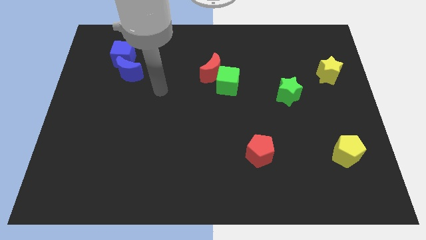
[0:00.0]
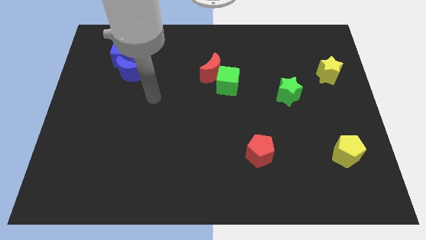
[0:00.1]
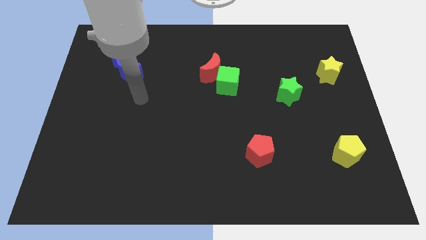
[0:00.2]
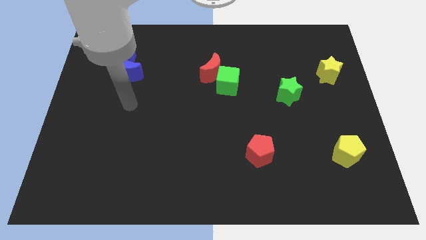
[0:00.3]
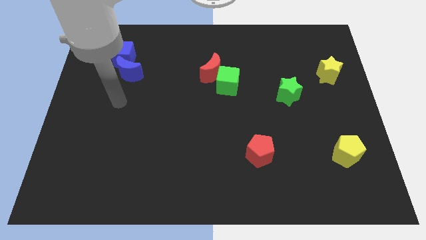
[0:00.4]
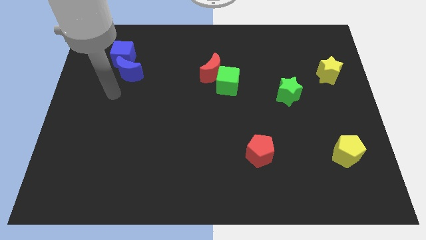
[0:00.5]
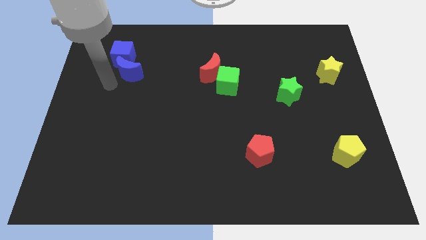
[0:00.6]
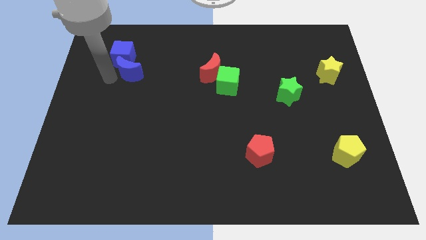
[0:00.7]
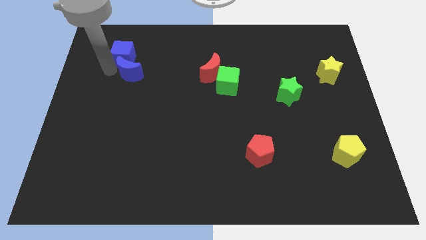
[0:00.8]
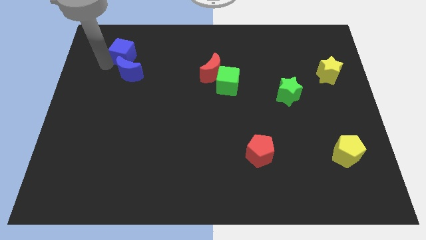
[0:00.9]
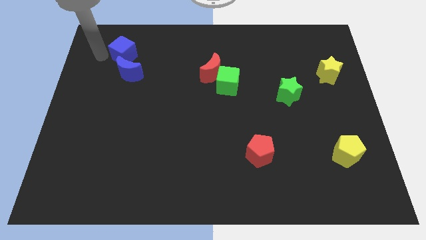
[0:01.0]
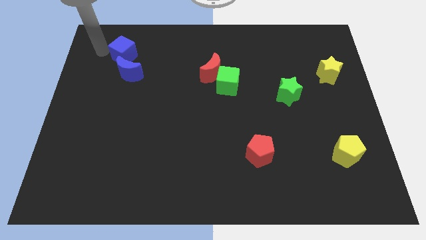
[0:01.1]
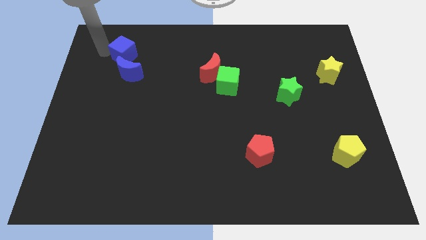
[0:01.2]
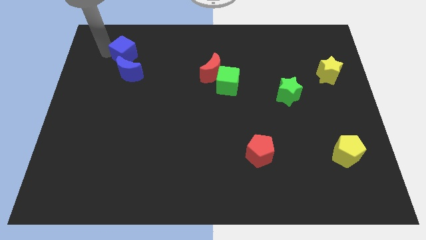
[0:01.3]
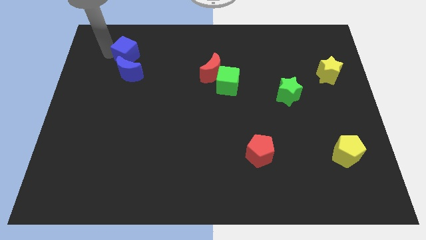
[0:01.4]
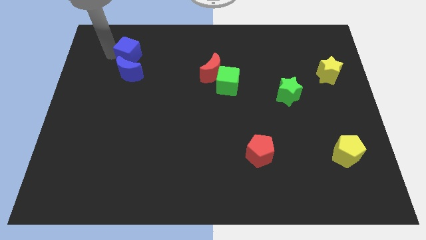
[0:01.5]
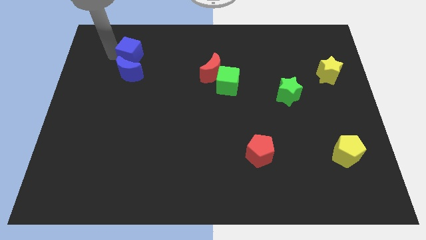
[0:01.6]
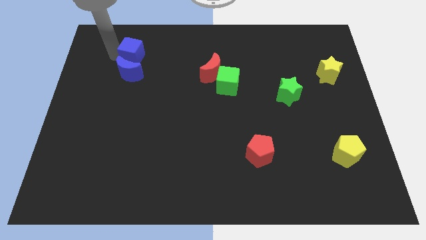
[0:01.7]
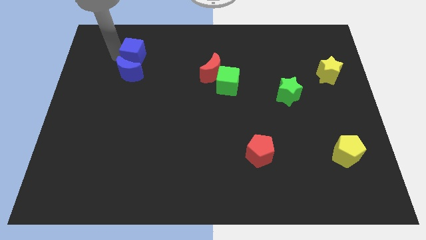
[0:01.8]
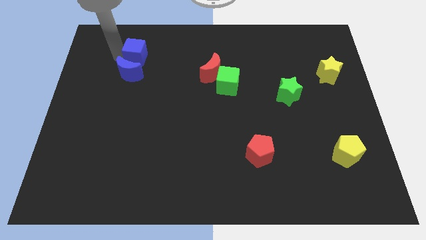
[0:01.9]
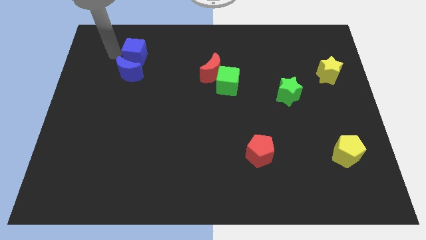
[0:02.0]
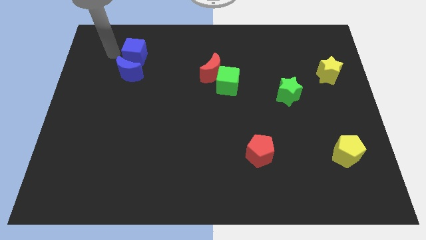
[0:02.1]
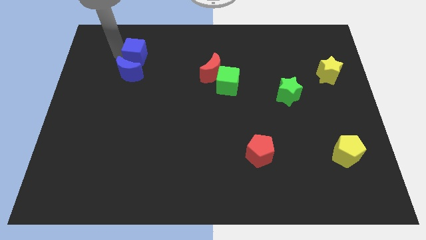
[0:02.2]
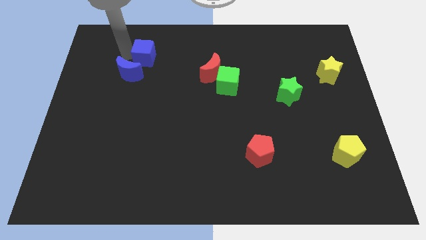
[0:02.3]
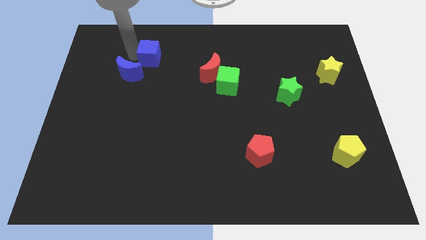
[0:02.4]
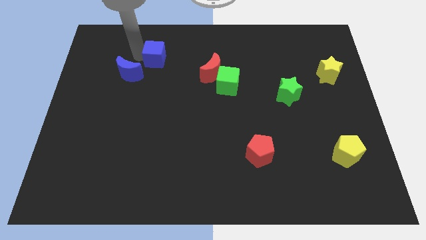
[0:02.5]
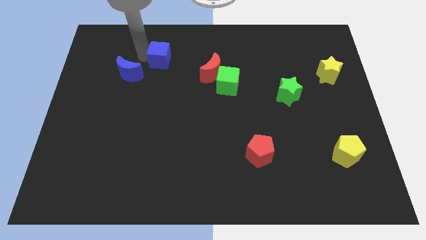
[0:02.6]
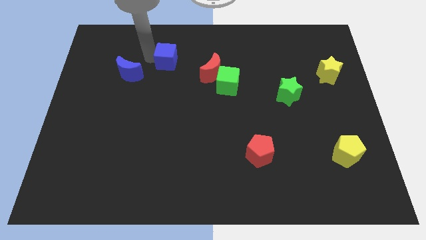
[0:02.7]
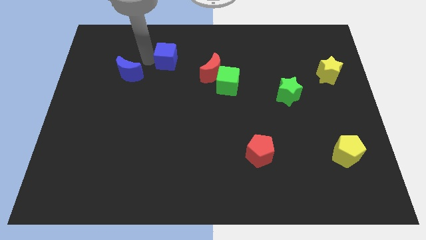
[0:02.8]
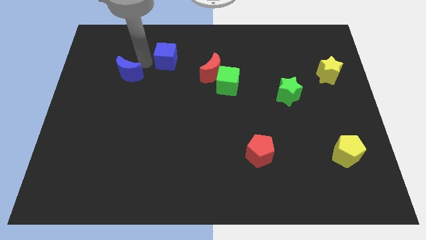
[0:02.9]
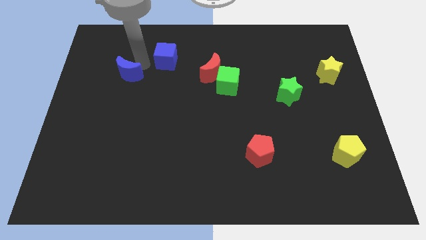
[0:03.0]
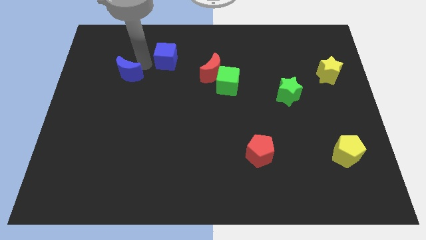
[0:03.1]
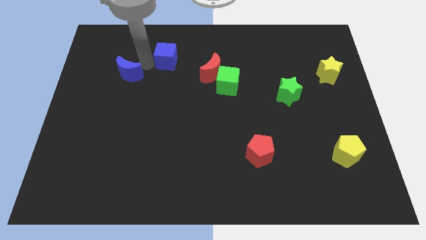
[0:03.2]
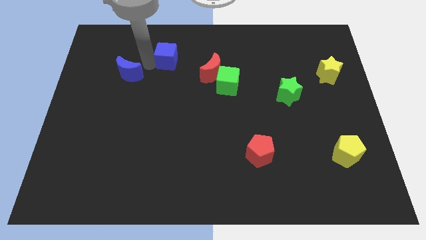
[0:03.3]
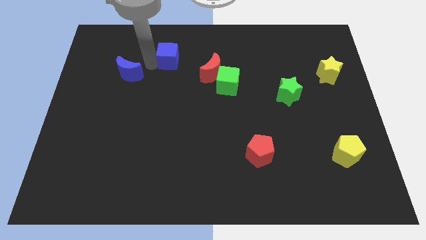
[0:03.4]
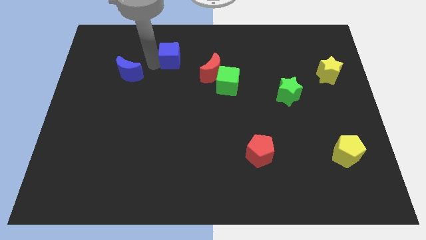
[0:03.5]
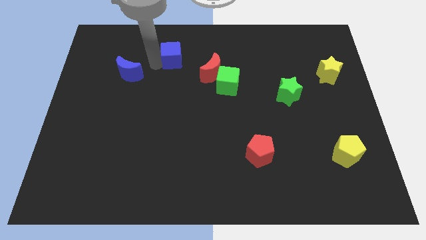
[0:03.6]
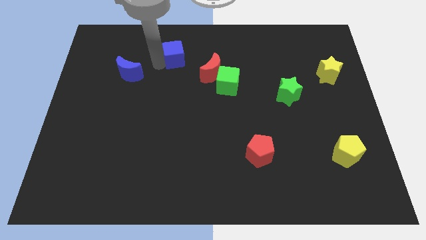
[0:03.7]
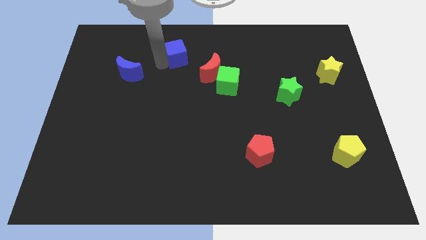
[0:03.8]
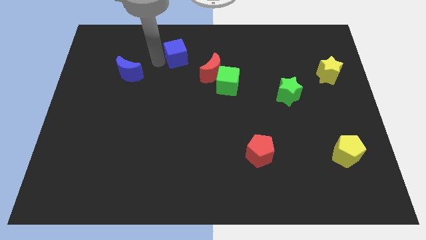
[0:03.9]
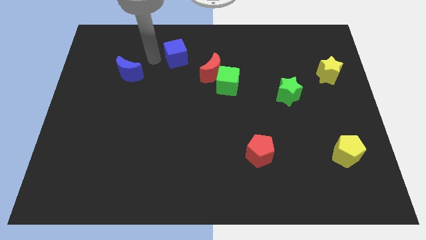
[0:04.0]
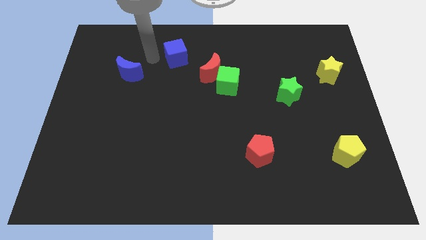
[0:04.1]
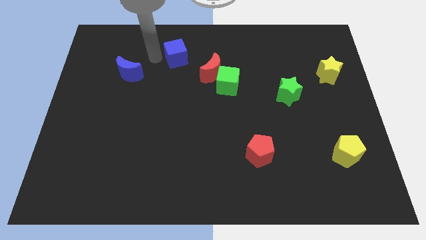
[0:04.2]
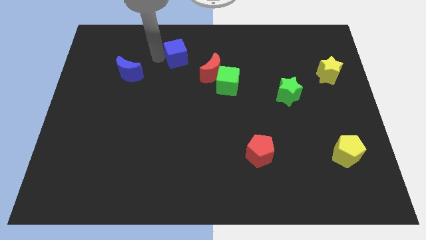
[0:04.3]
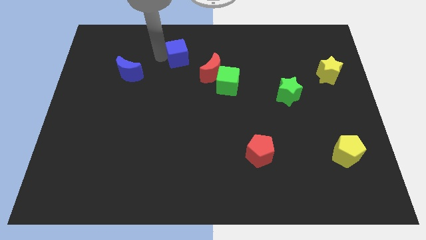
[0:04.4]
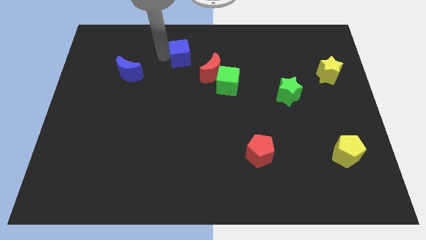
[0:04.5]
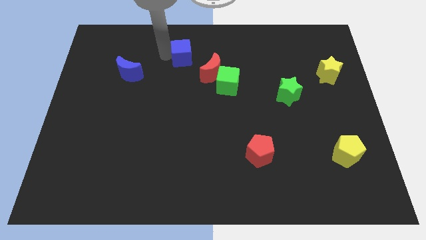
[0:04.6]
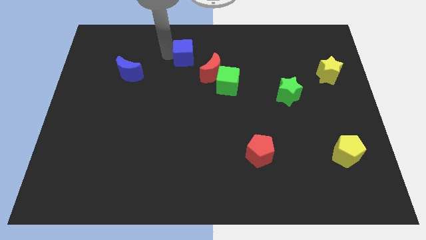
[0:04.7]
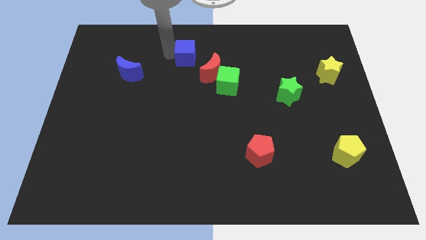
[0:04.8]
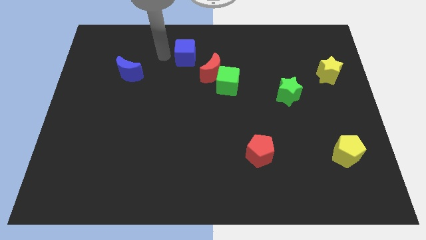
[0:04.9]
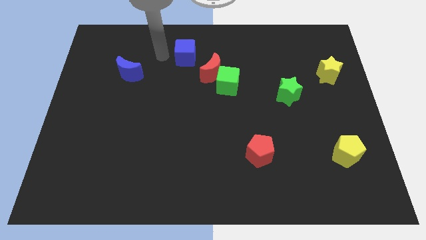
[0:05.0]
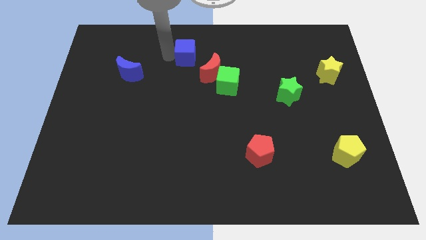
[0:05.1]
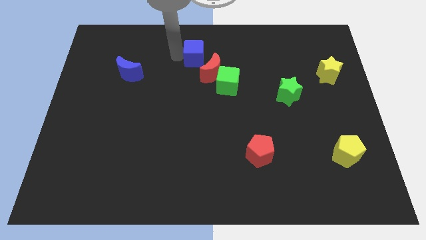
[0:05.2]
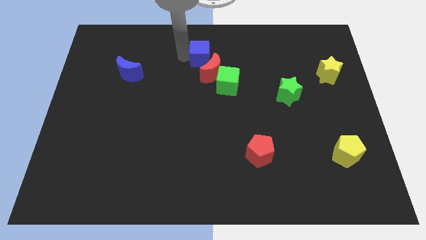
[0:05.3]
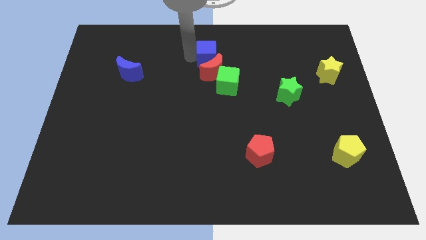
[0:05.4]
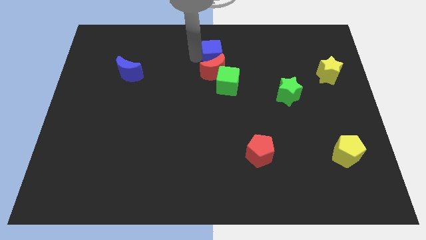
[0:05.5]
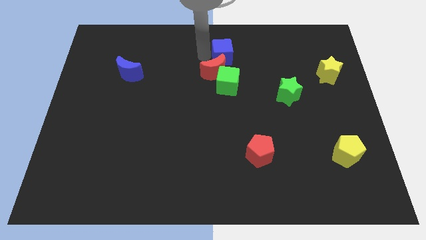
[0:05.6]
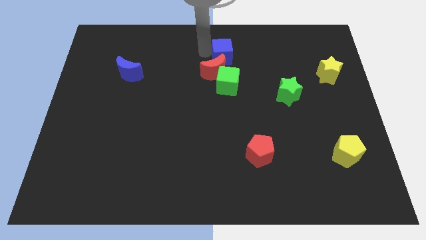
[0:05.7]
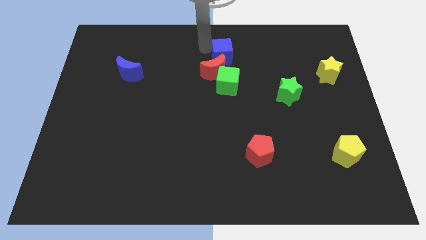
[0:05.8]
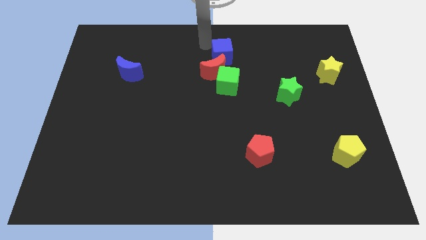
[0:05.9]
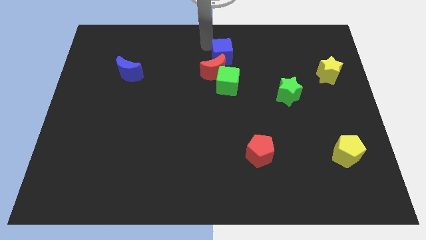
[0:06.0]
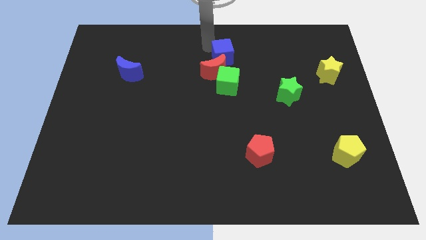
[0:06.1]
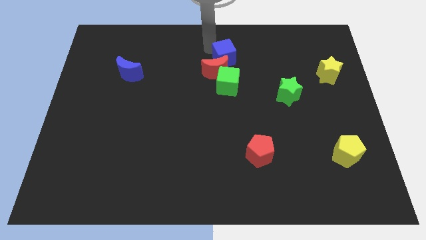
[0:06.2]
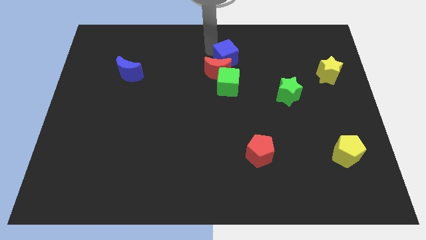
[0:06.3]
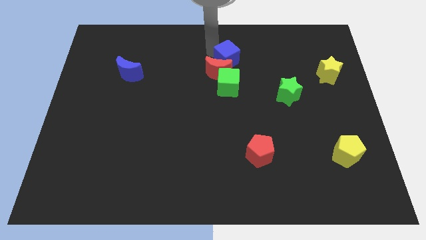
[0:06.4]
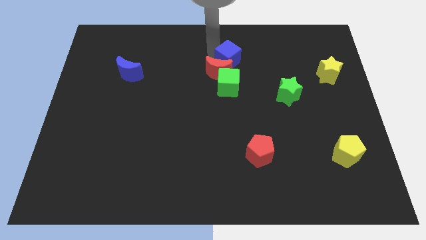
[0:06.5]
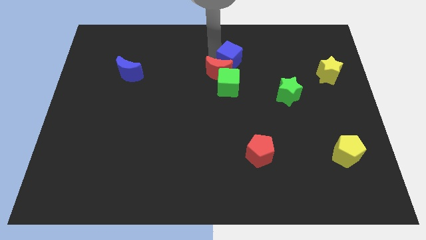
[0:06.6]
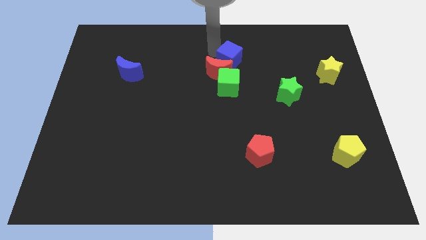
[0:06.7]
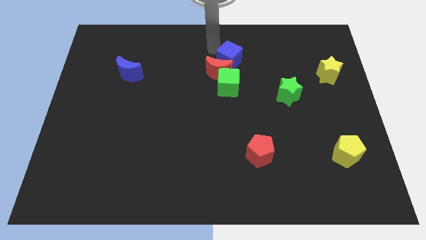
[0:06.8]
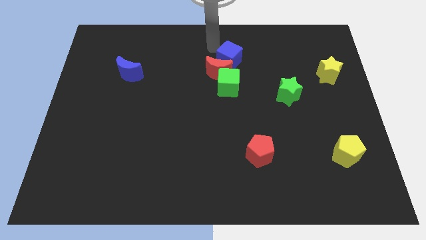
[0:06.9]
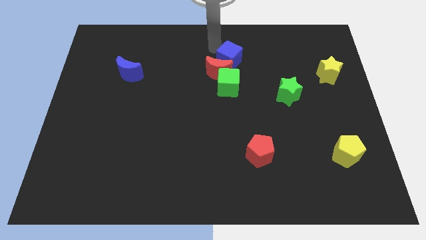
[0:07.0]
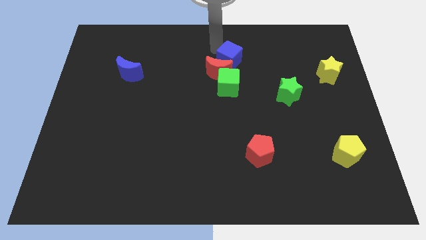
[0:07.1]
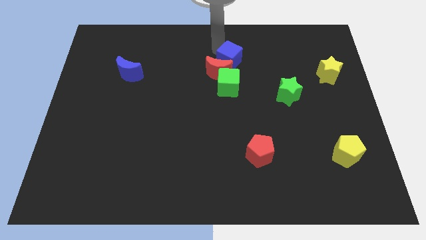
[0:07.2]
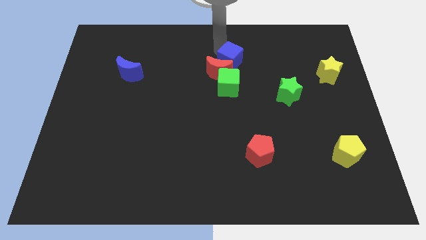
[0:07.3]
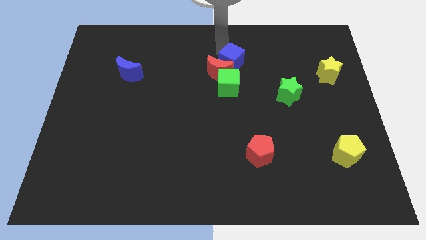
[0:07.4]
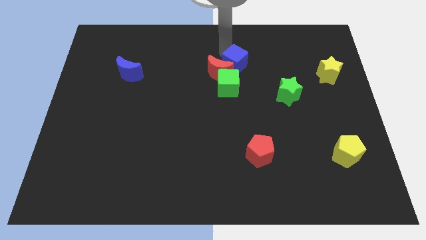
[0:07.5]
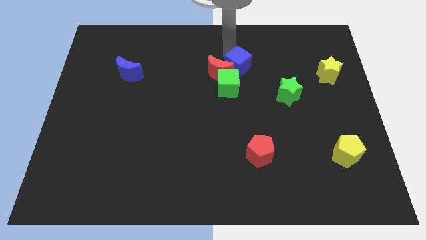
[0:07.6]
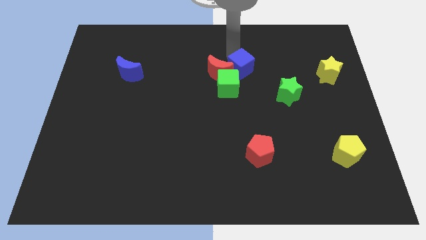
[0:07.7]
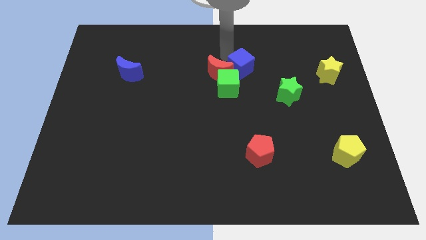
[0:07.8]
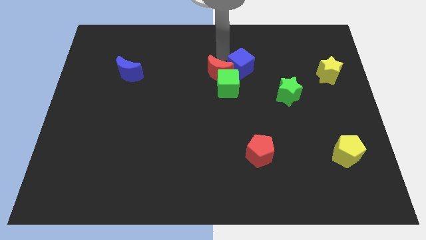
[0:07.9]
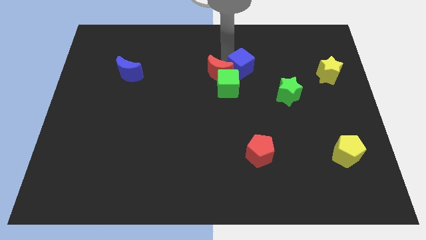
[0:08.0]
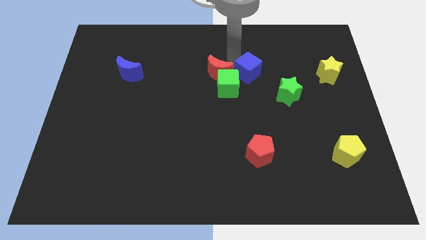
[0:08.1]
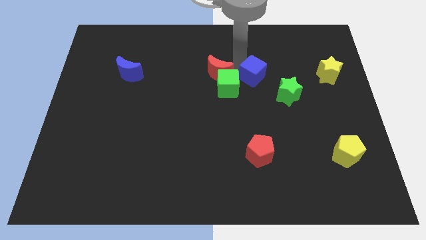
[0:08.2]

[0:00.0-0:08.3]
move the blue cube to the right side of the green cube
